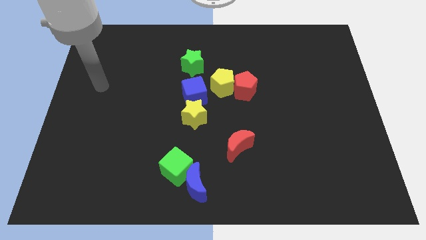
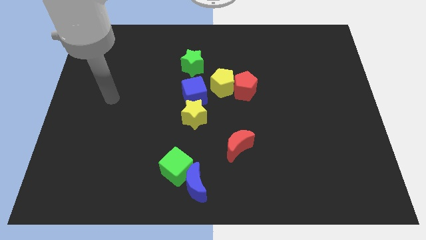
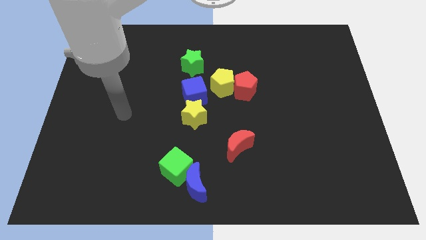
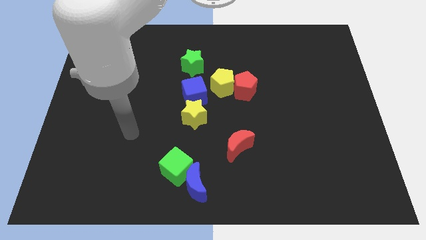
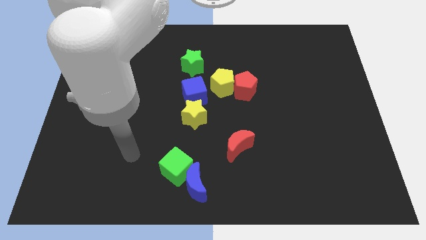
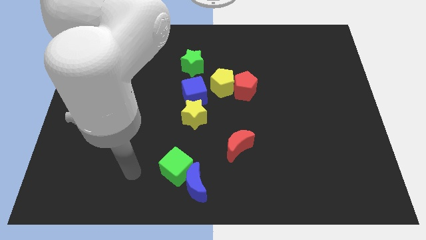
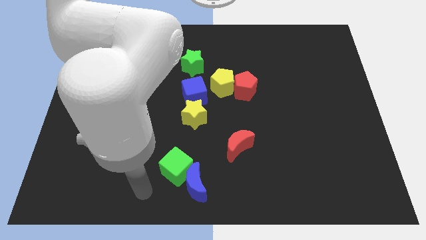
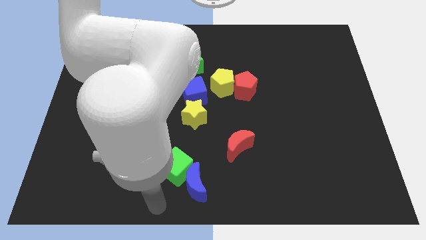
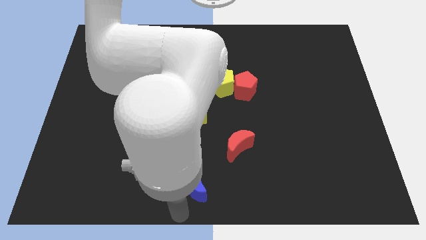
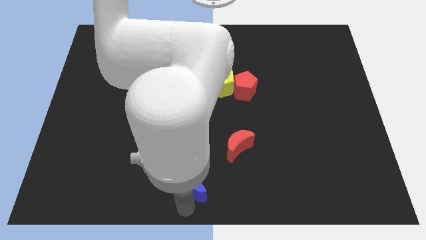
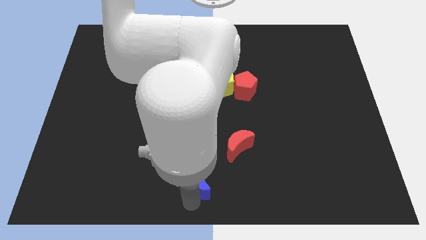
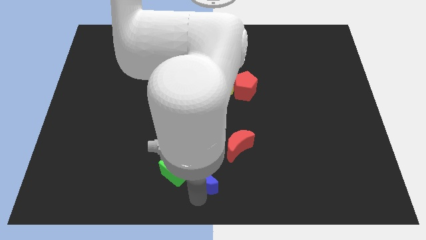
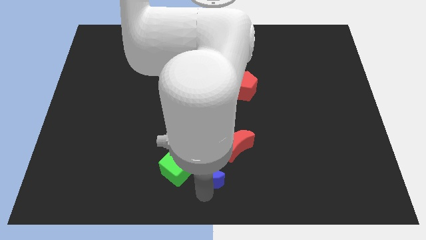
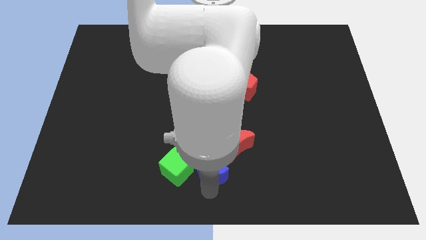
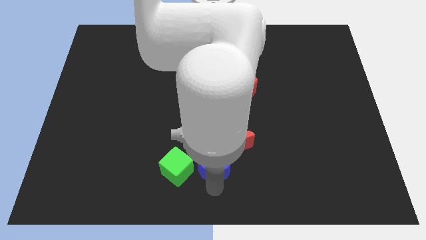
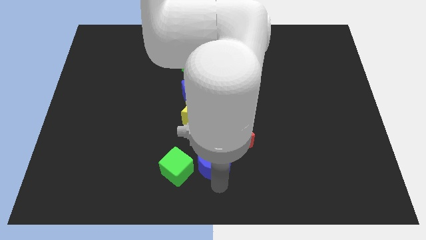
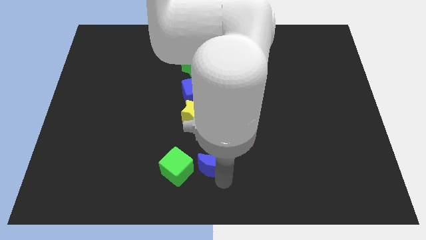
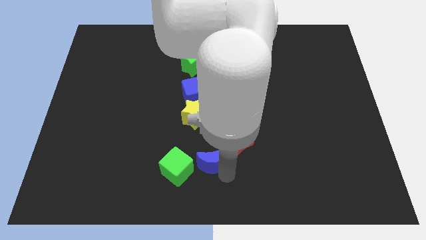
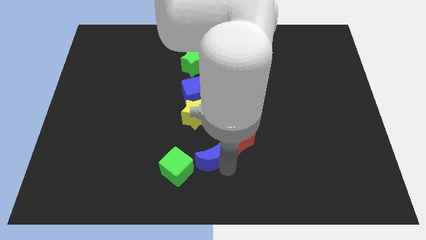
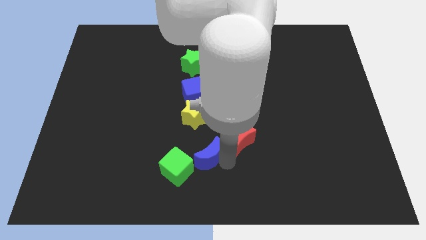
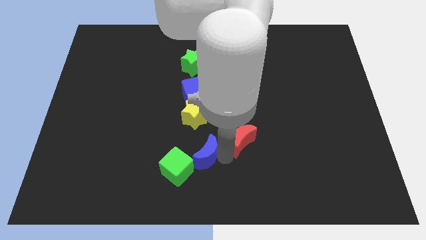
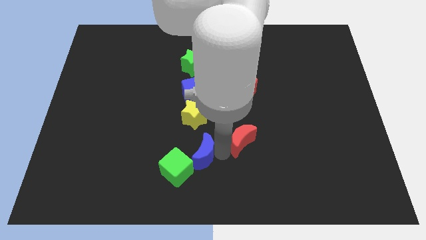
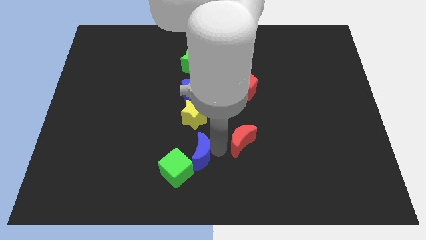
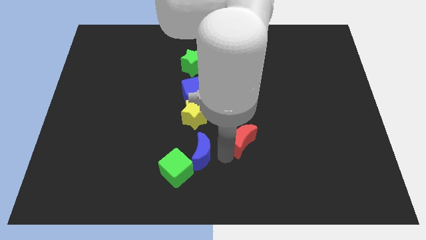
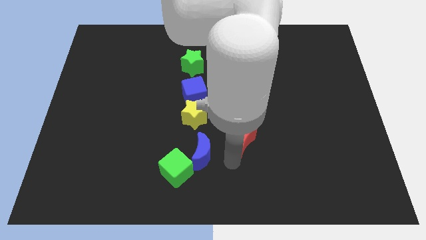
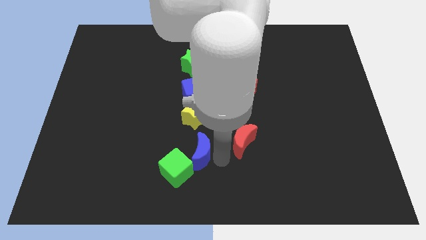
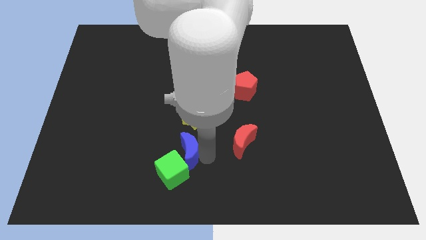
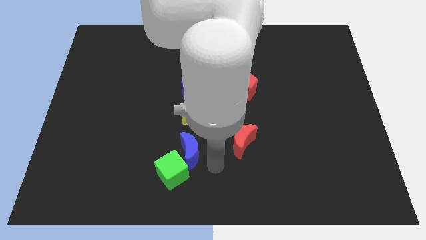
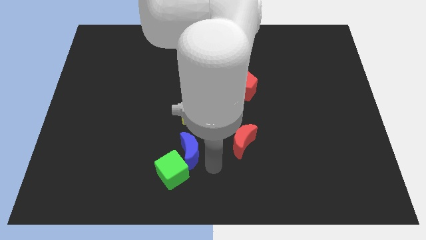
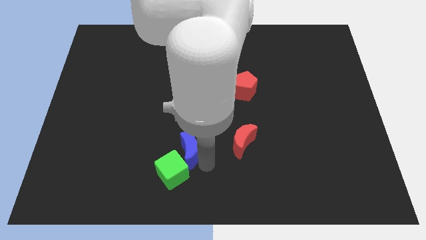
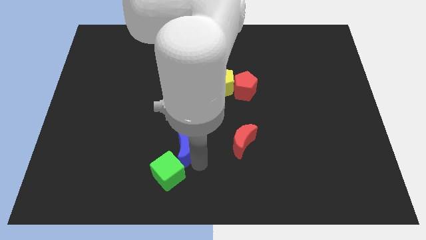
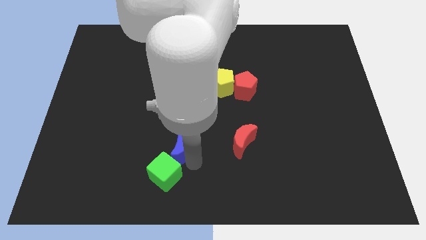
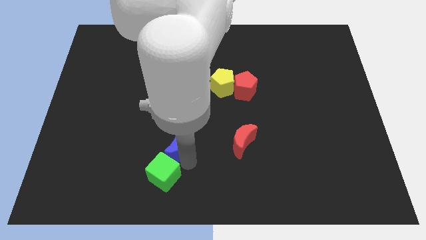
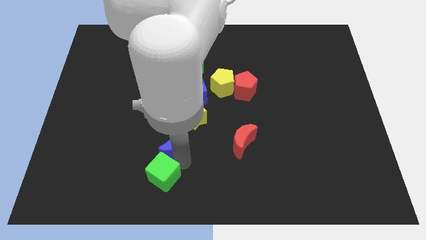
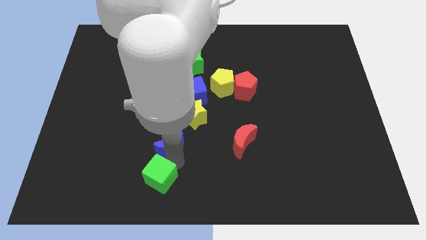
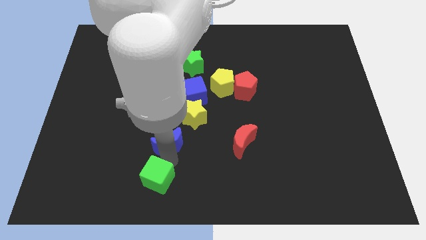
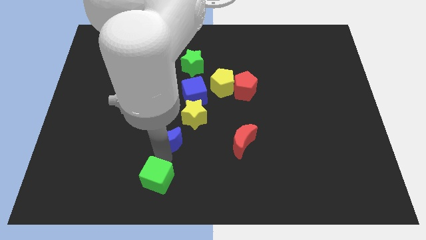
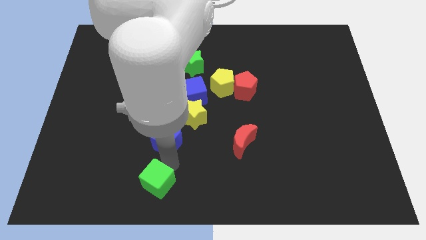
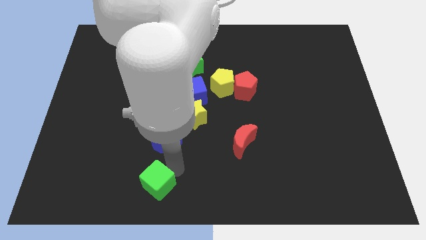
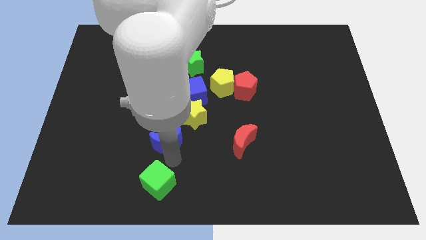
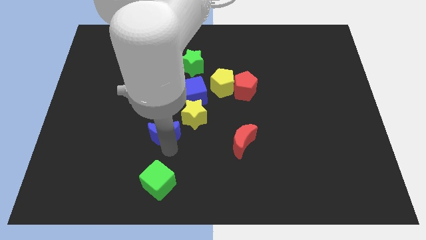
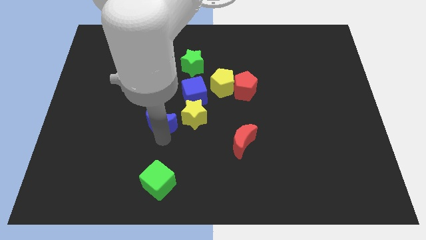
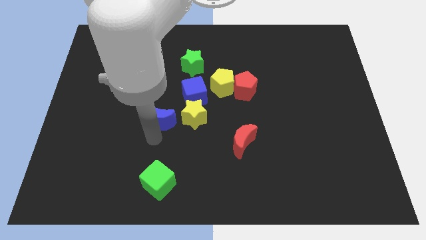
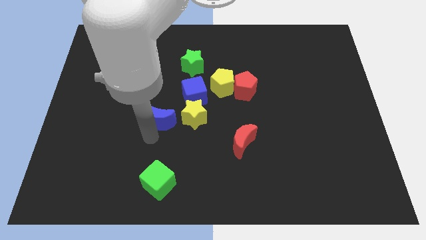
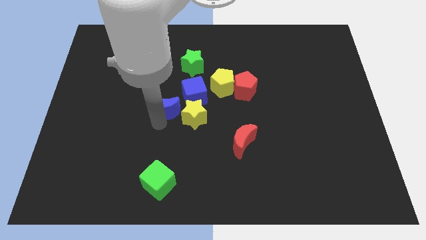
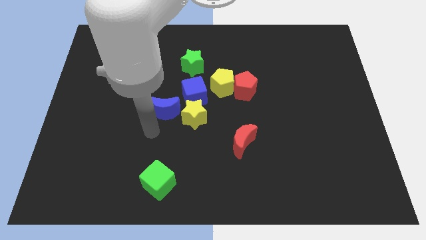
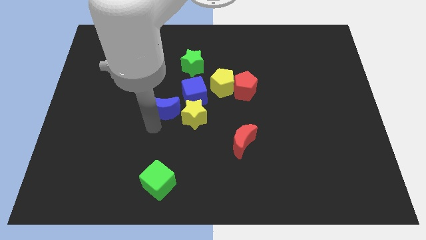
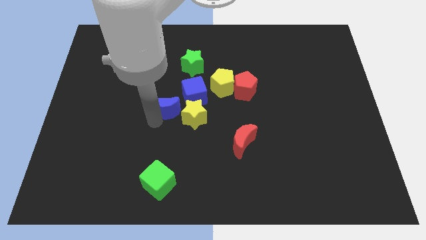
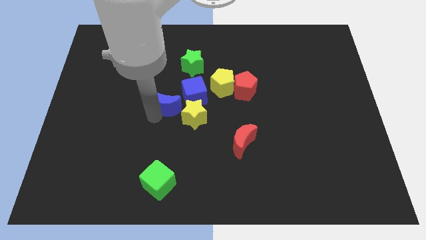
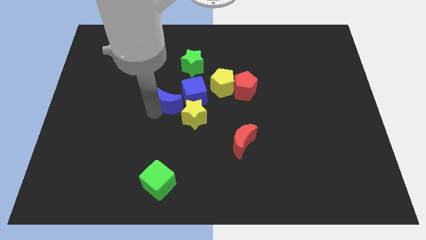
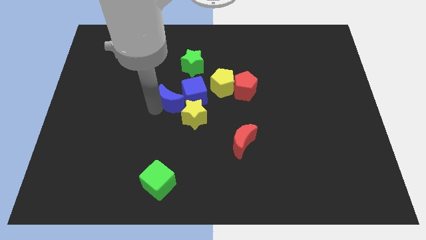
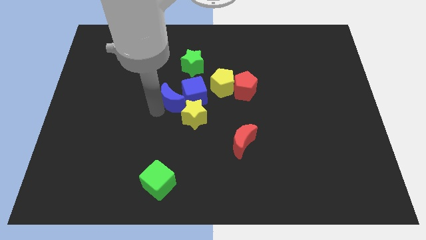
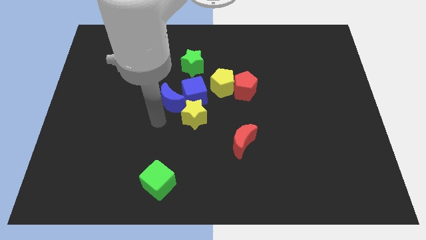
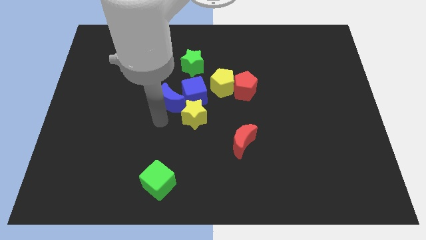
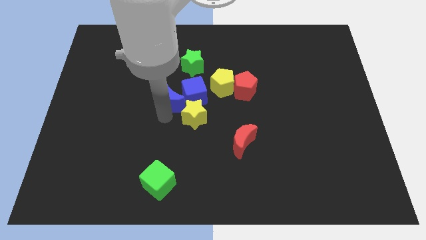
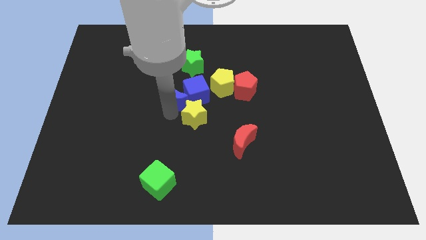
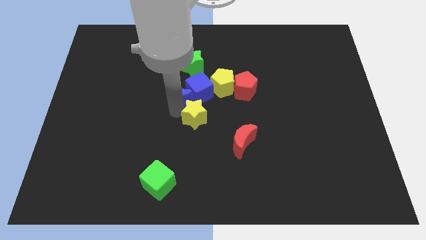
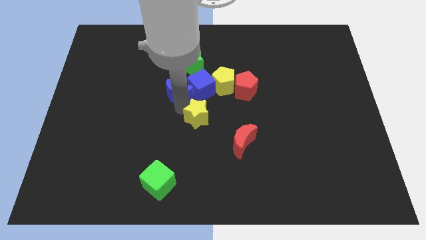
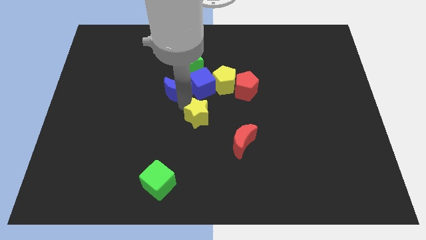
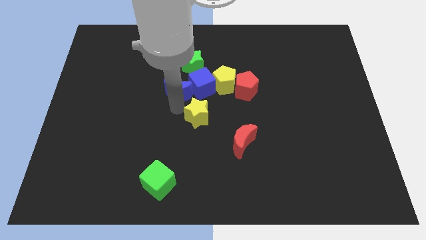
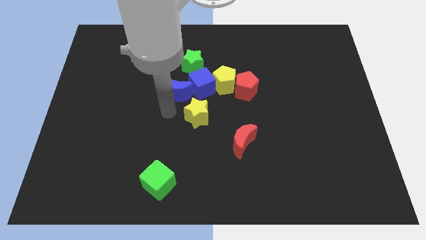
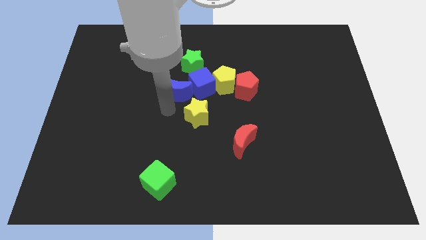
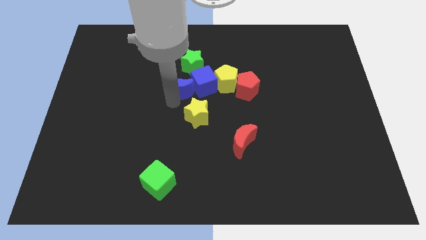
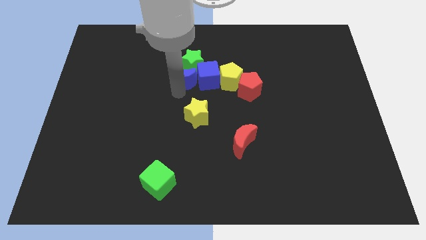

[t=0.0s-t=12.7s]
push the blue moon close to the green star

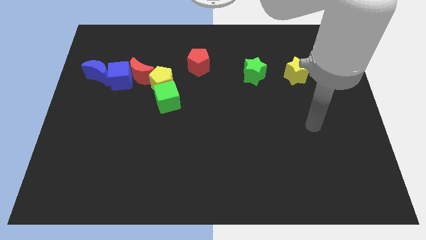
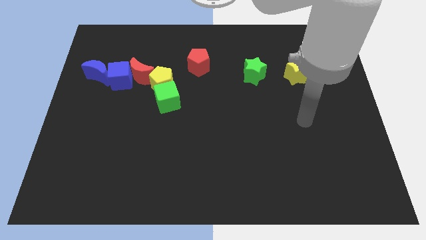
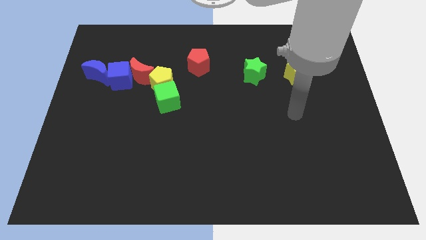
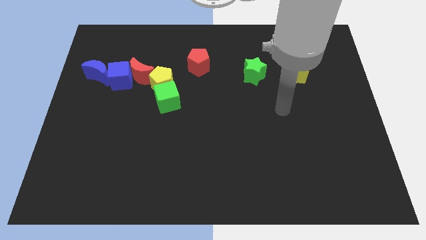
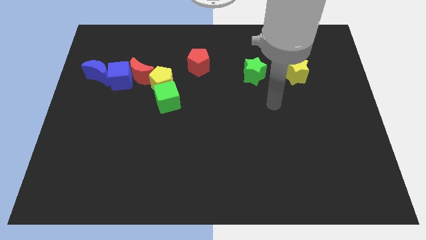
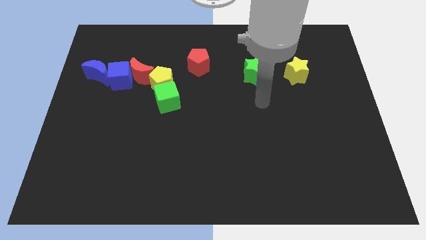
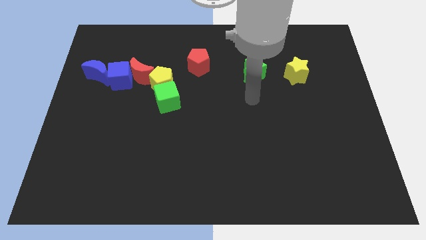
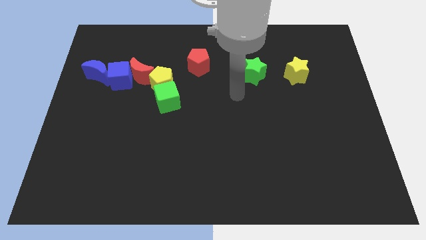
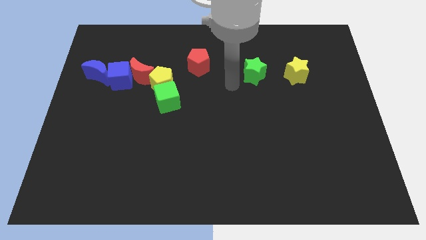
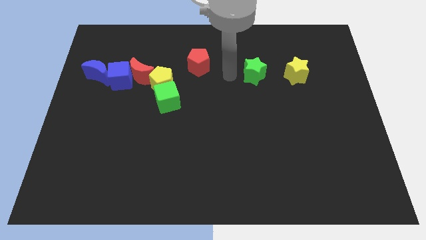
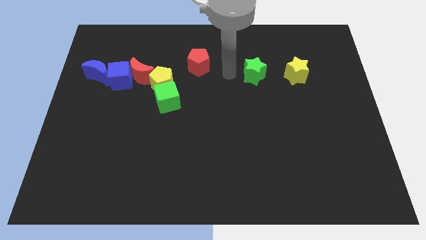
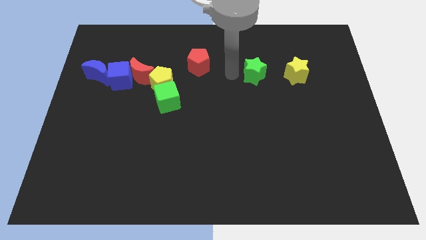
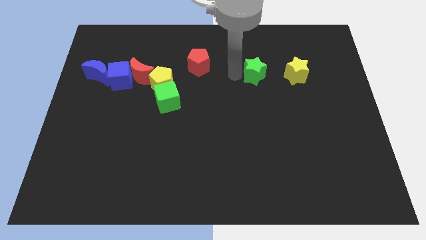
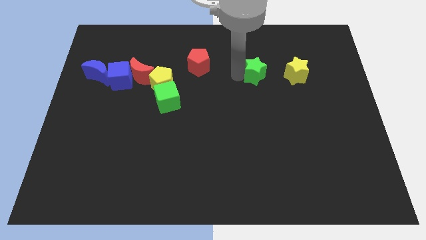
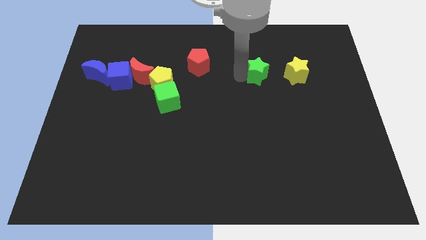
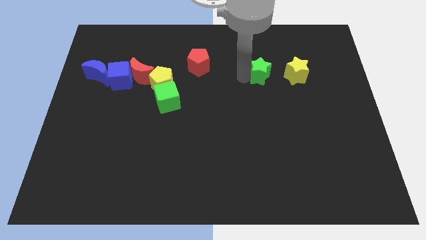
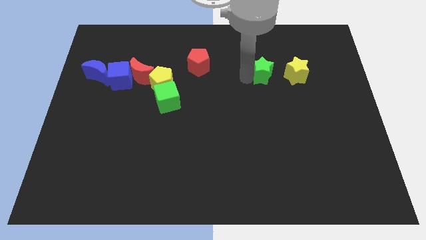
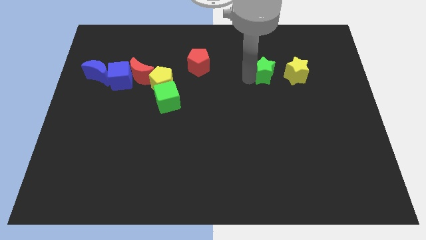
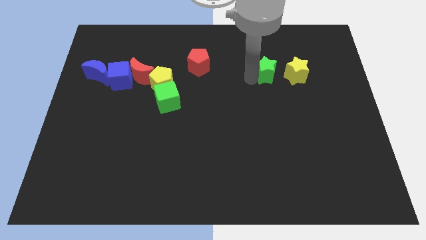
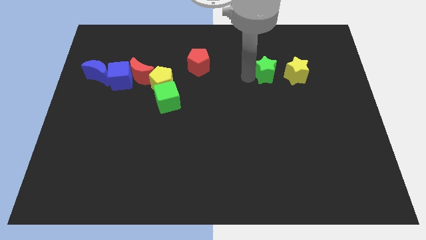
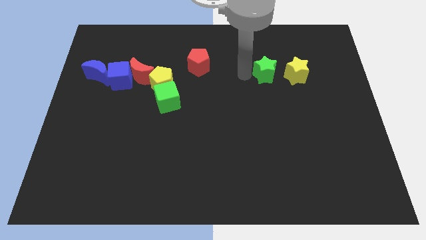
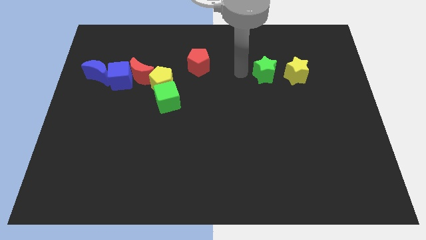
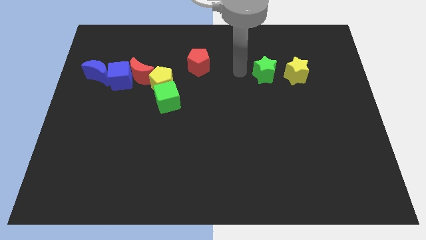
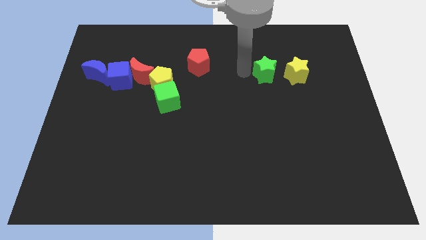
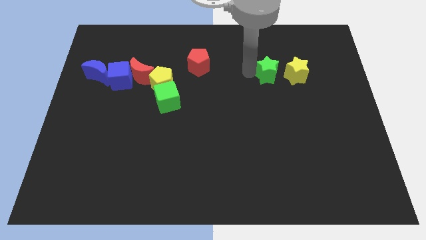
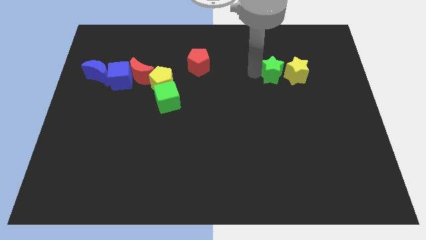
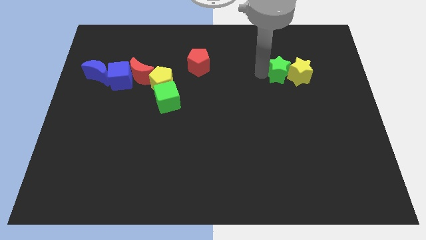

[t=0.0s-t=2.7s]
move the green star next to the yellow star
